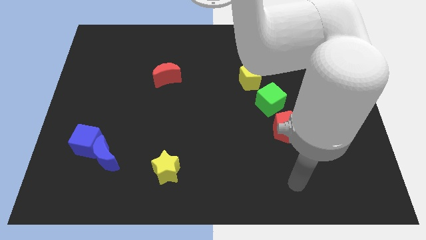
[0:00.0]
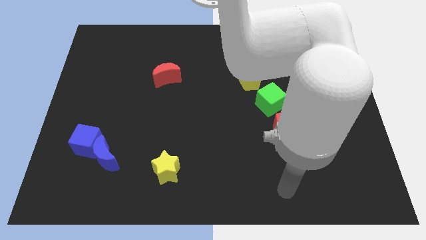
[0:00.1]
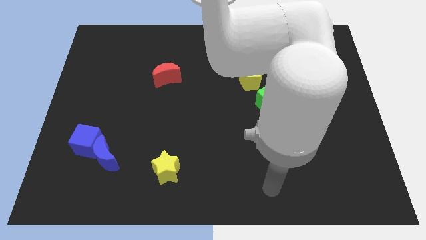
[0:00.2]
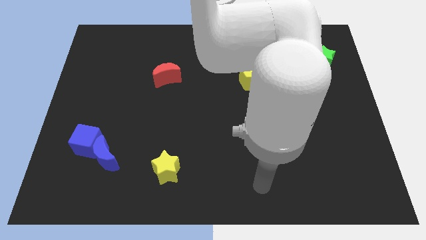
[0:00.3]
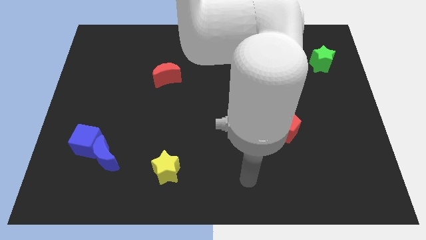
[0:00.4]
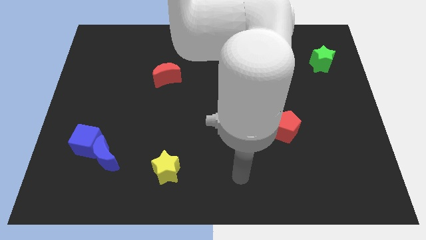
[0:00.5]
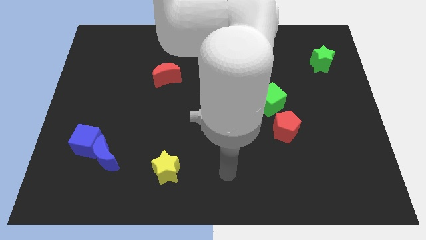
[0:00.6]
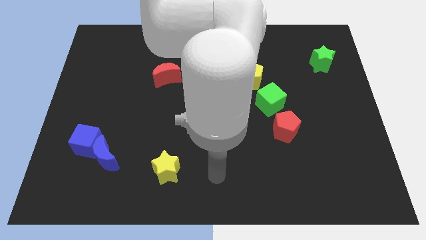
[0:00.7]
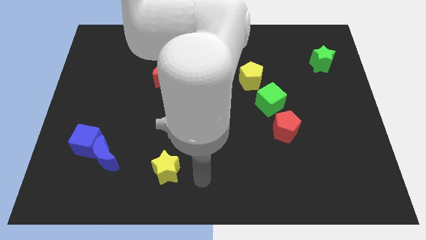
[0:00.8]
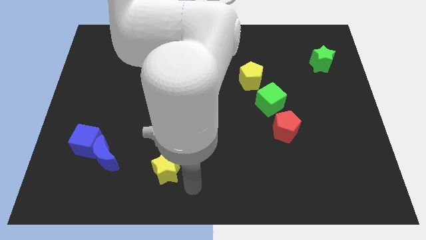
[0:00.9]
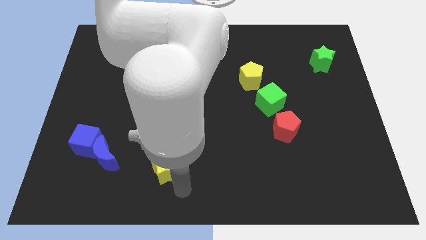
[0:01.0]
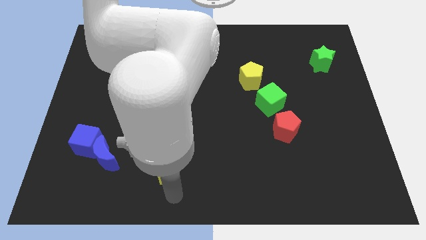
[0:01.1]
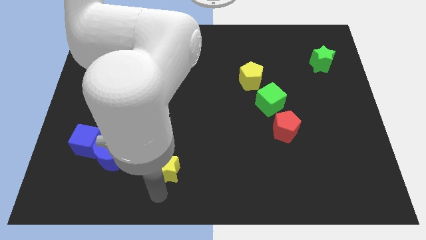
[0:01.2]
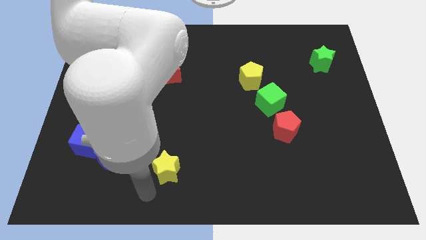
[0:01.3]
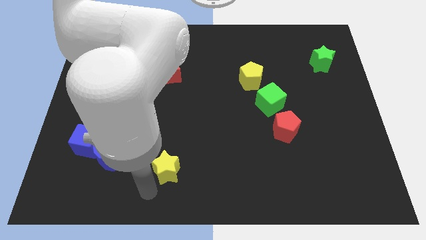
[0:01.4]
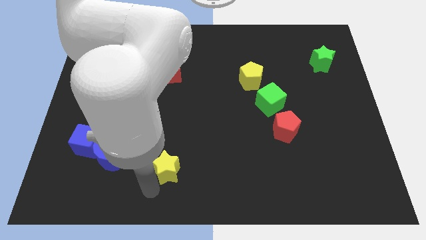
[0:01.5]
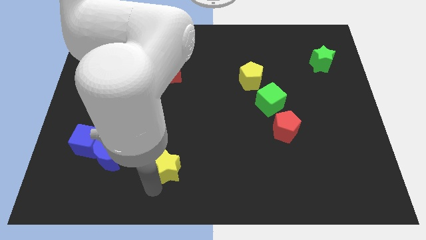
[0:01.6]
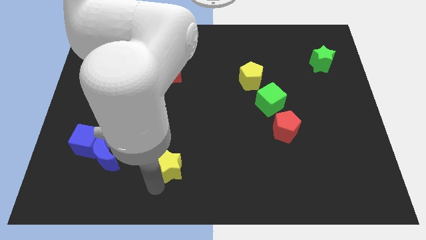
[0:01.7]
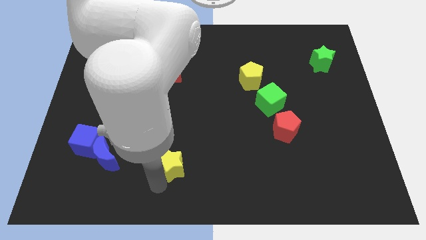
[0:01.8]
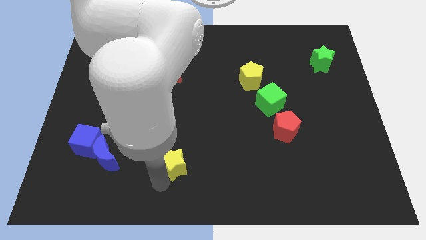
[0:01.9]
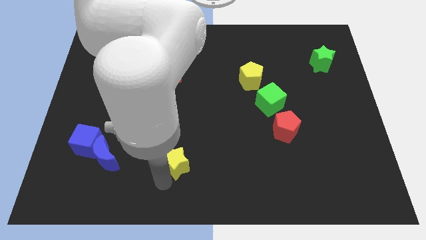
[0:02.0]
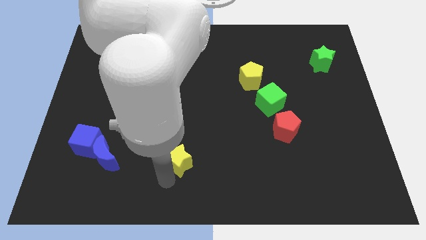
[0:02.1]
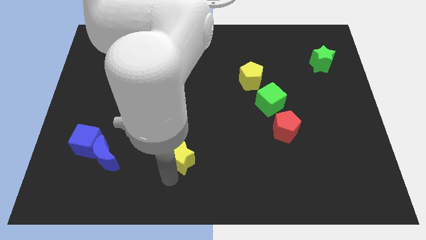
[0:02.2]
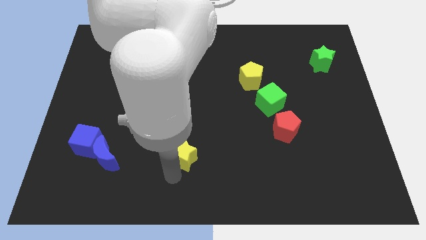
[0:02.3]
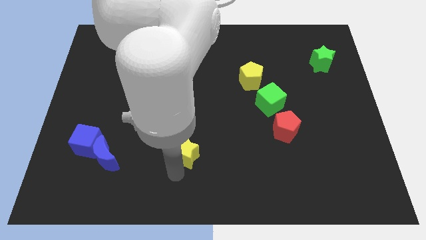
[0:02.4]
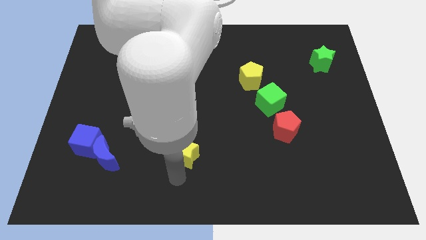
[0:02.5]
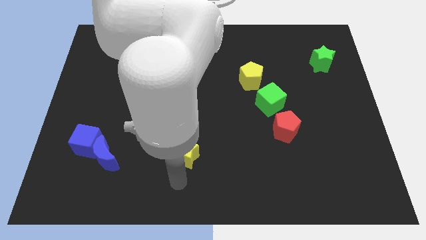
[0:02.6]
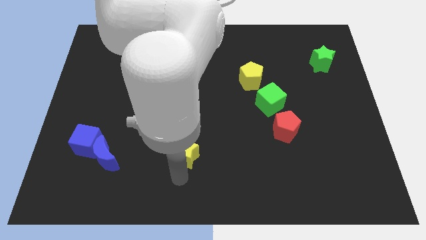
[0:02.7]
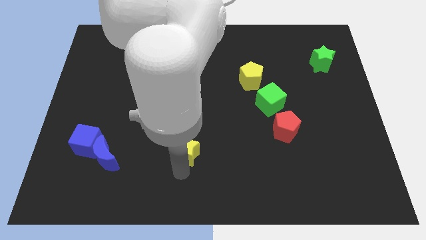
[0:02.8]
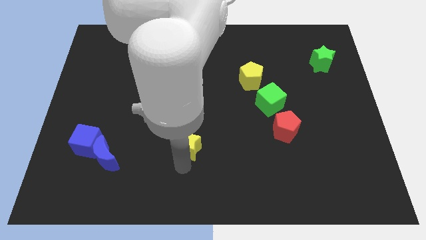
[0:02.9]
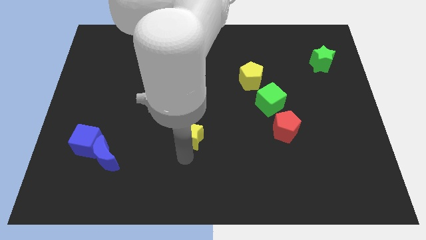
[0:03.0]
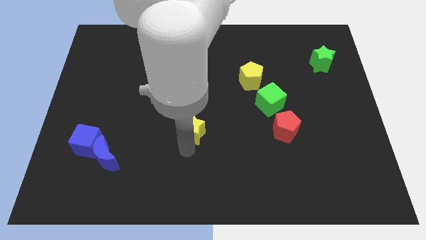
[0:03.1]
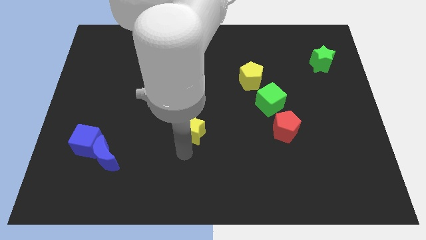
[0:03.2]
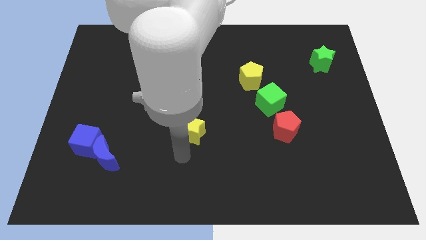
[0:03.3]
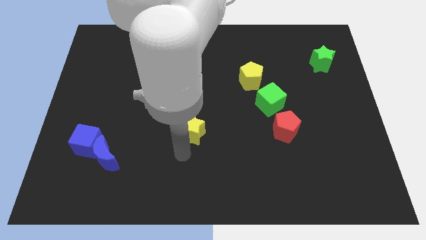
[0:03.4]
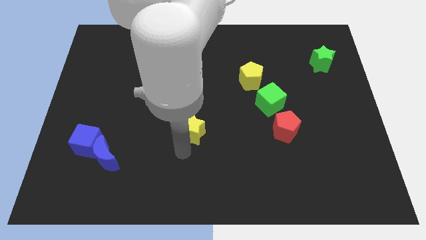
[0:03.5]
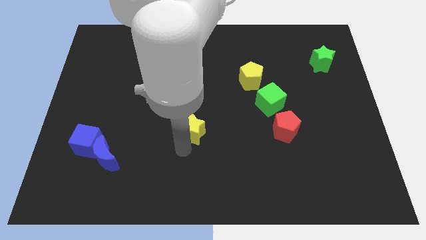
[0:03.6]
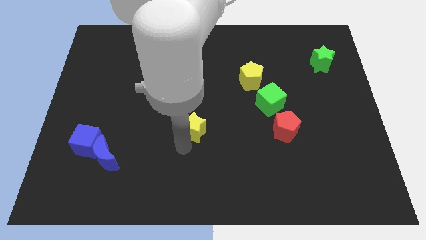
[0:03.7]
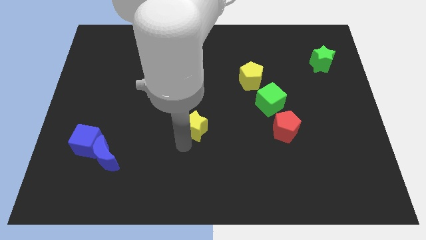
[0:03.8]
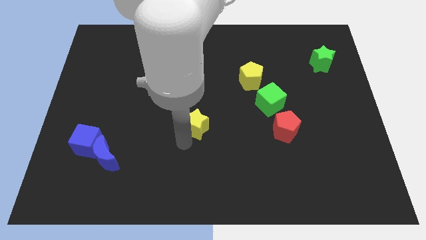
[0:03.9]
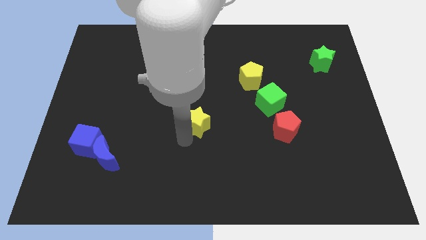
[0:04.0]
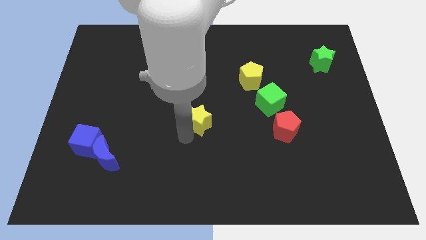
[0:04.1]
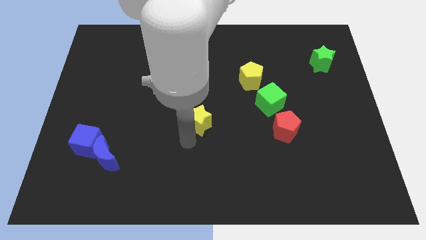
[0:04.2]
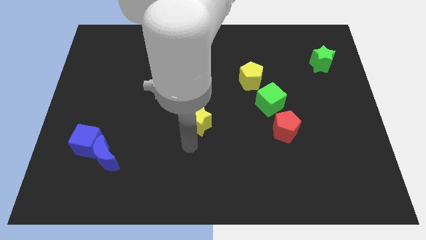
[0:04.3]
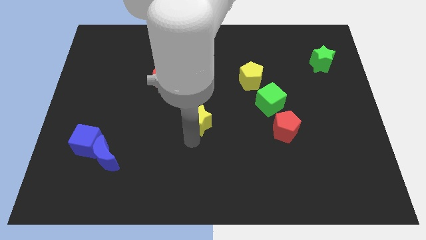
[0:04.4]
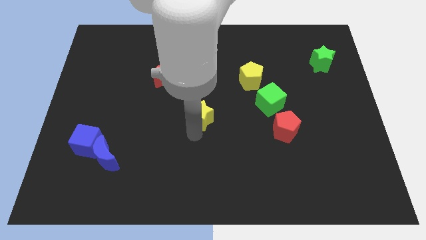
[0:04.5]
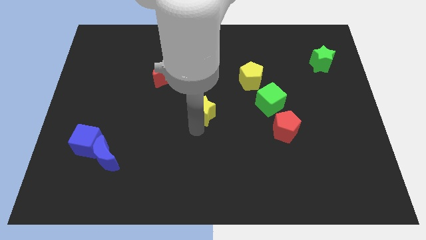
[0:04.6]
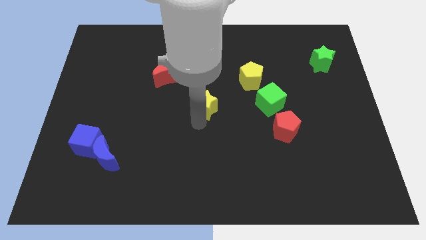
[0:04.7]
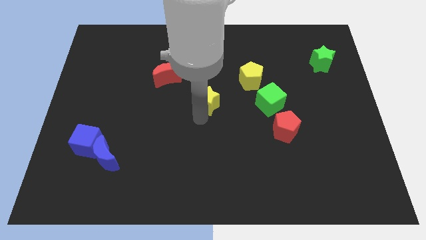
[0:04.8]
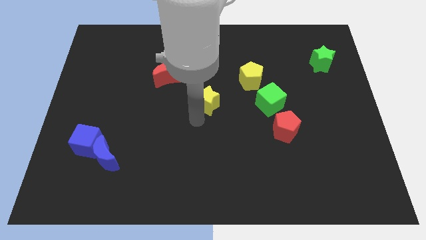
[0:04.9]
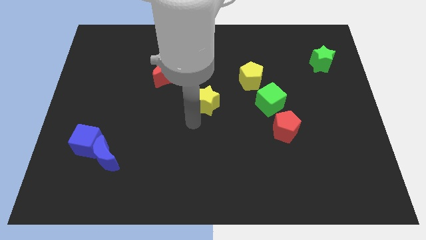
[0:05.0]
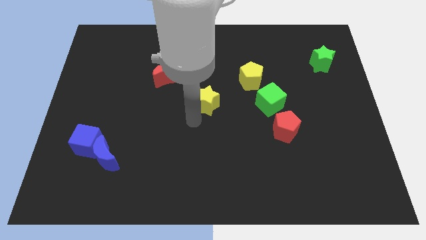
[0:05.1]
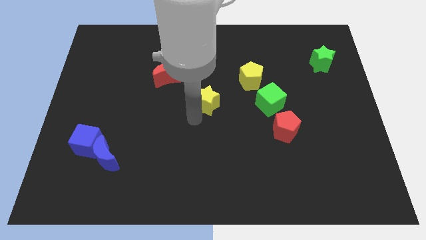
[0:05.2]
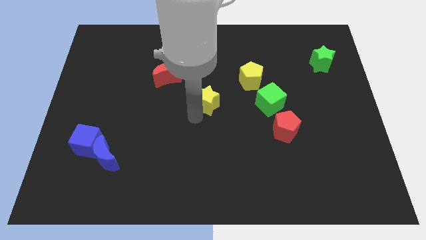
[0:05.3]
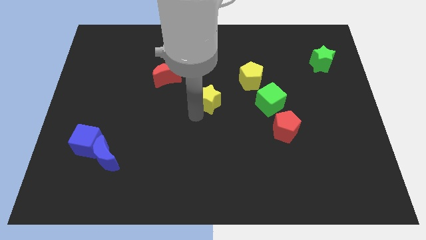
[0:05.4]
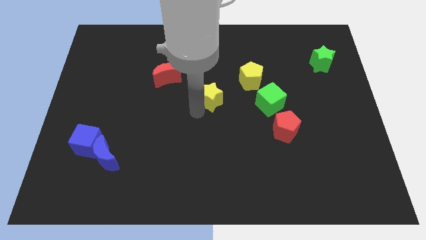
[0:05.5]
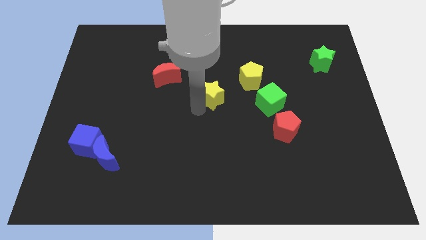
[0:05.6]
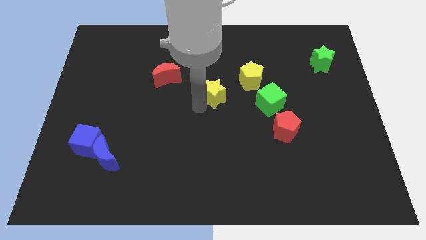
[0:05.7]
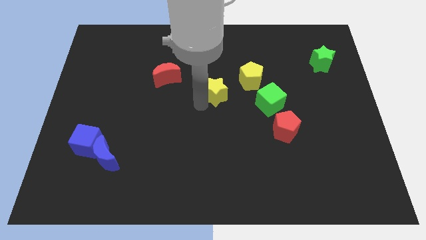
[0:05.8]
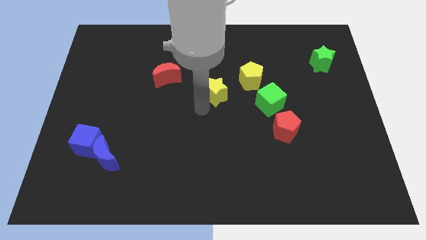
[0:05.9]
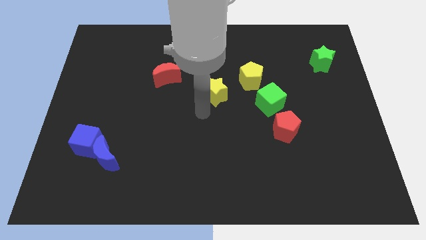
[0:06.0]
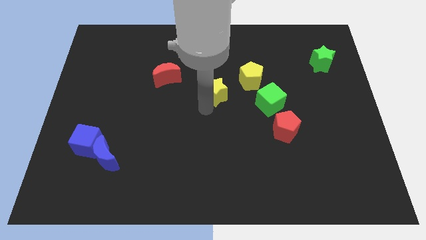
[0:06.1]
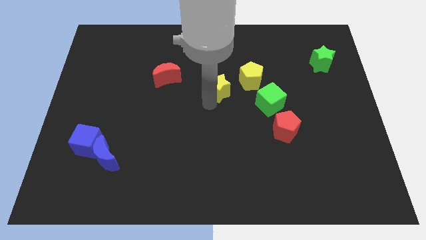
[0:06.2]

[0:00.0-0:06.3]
slide the yellow star upwards and then right

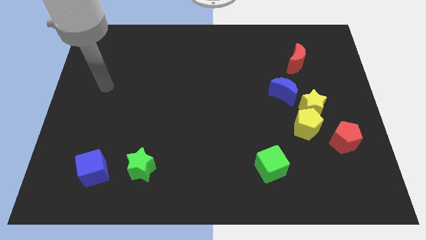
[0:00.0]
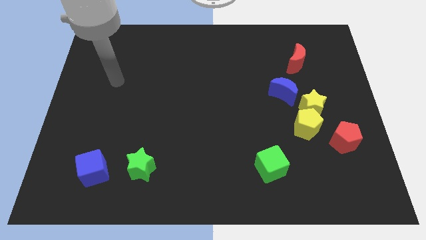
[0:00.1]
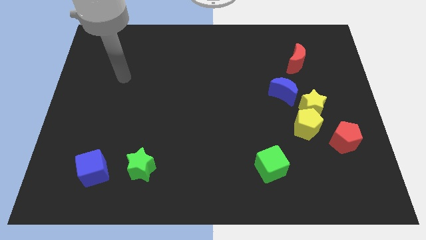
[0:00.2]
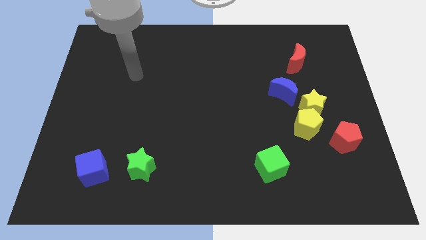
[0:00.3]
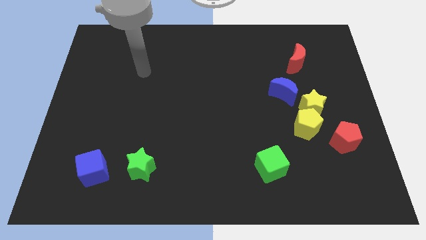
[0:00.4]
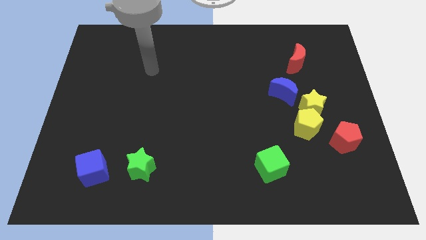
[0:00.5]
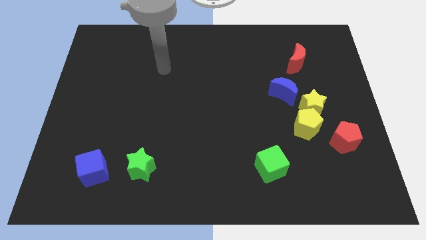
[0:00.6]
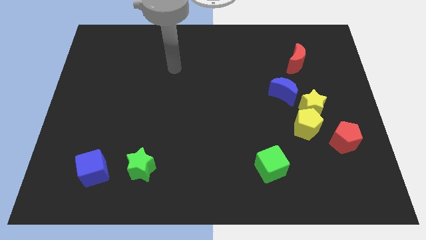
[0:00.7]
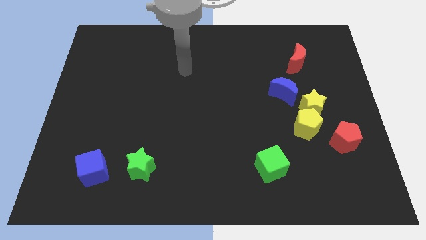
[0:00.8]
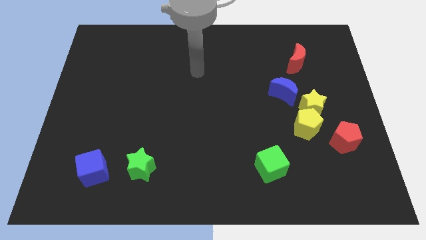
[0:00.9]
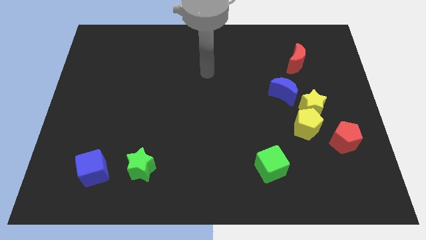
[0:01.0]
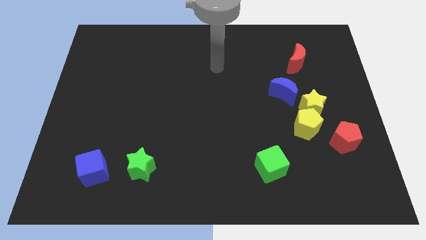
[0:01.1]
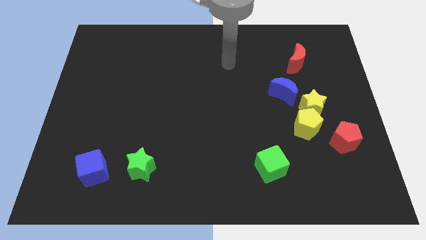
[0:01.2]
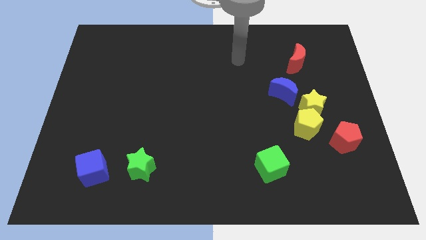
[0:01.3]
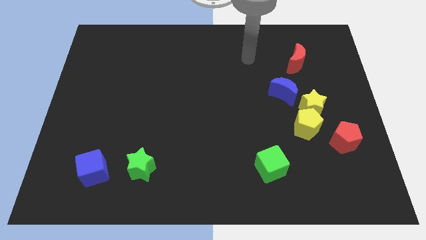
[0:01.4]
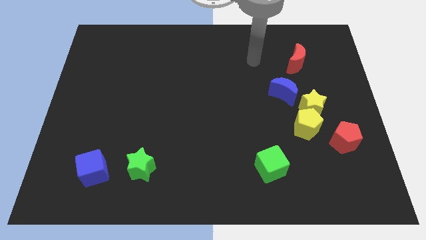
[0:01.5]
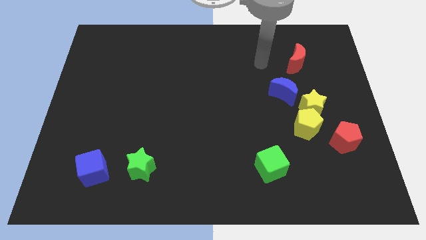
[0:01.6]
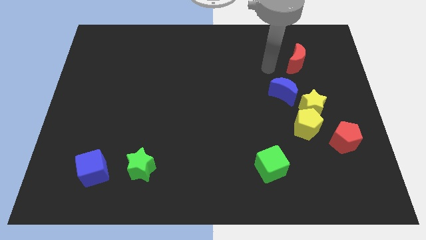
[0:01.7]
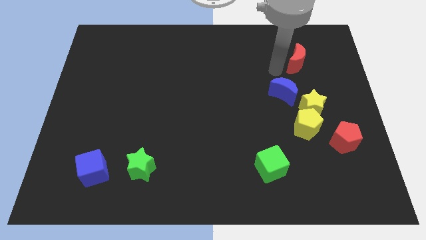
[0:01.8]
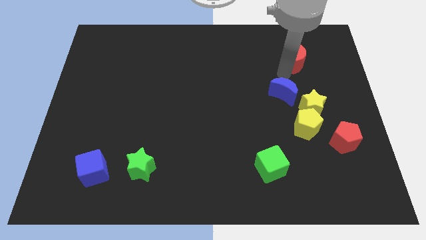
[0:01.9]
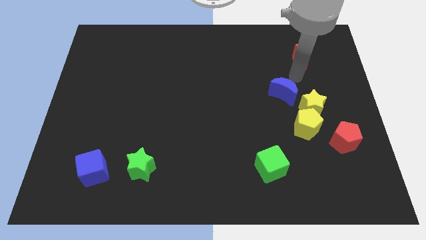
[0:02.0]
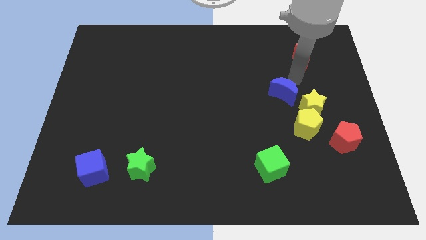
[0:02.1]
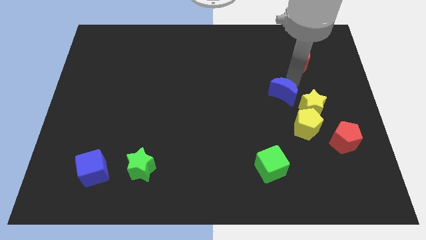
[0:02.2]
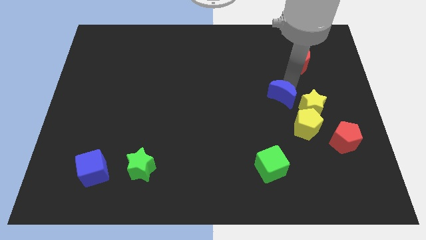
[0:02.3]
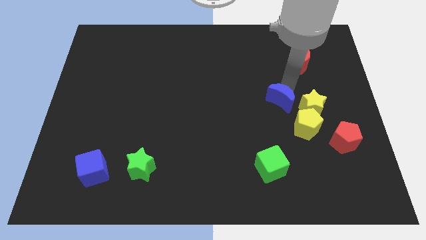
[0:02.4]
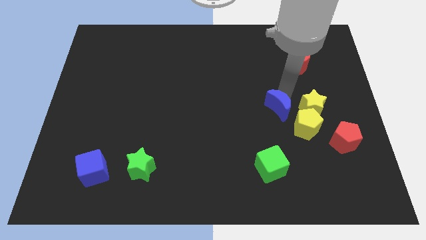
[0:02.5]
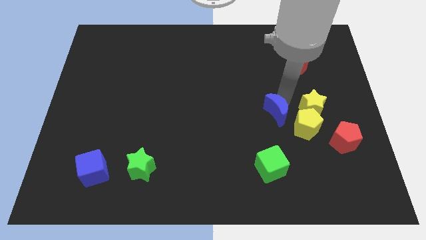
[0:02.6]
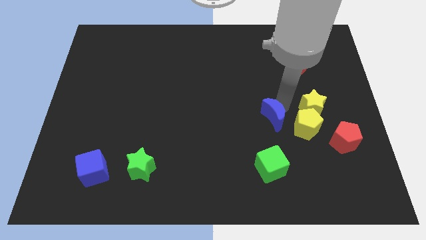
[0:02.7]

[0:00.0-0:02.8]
move the blue moon diagonally downwards and to the left a little
